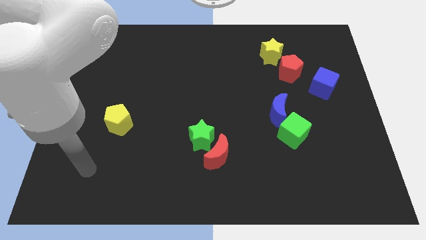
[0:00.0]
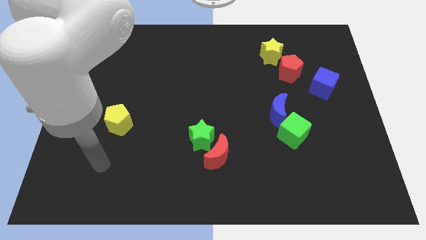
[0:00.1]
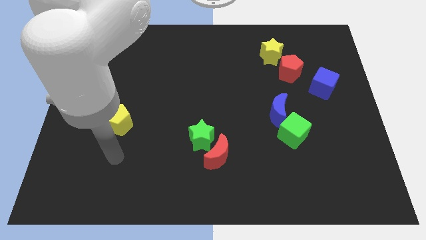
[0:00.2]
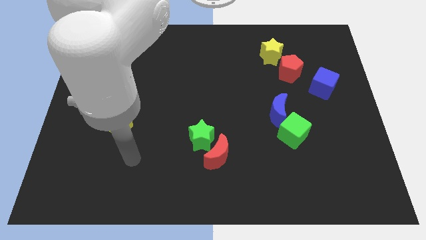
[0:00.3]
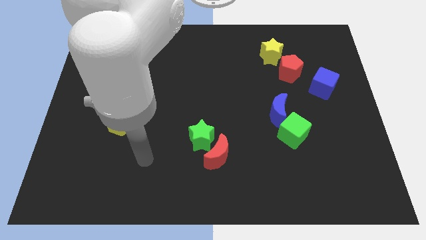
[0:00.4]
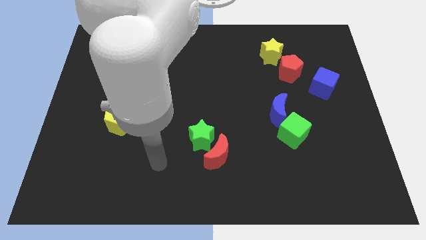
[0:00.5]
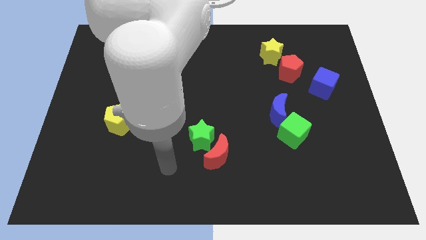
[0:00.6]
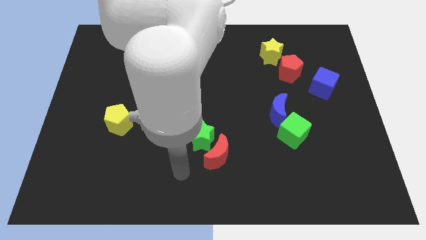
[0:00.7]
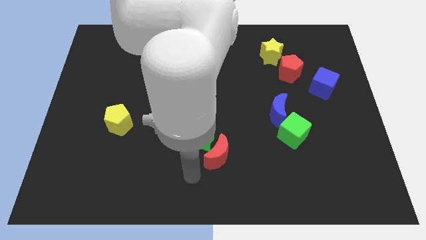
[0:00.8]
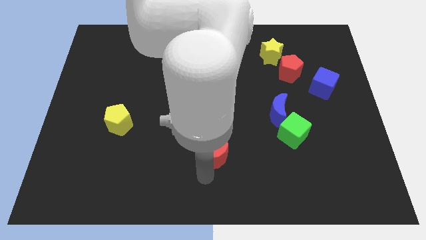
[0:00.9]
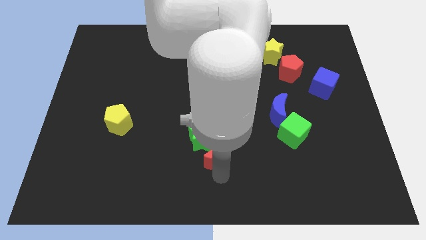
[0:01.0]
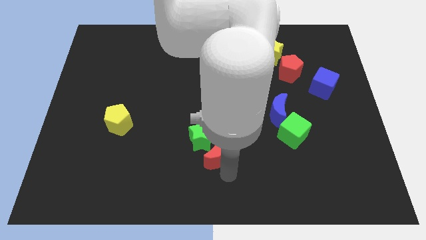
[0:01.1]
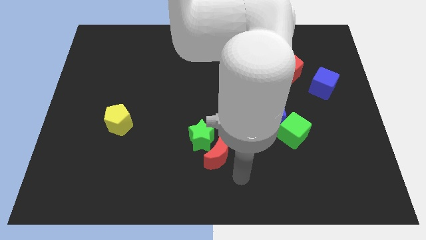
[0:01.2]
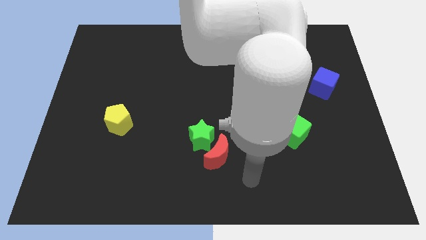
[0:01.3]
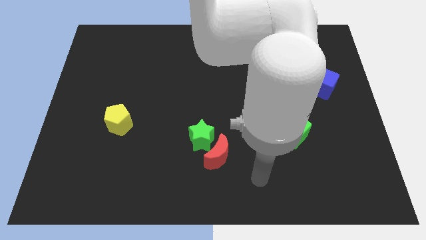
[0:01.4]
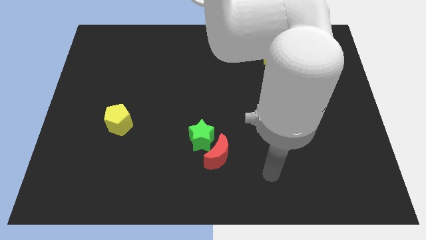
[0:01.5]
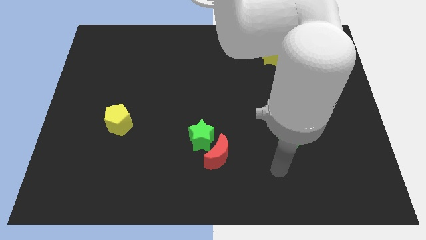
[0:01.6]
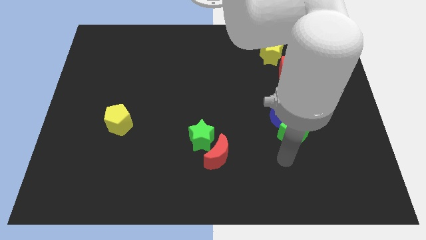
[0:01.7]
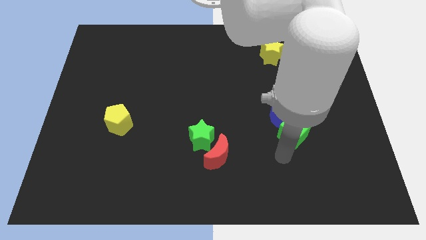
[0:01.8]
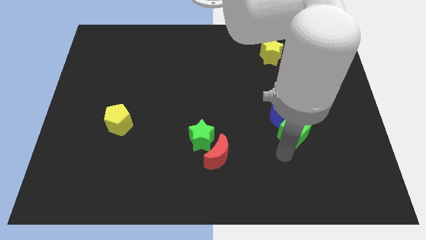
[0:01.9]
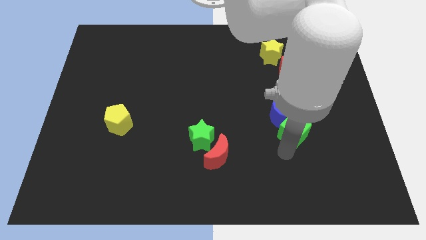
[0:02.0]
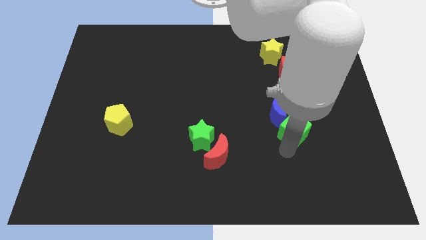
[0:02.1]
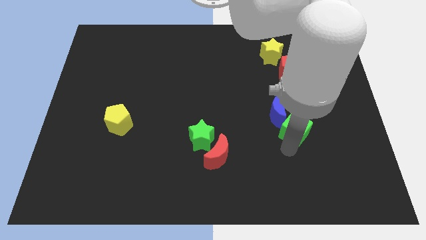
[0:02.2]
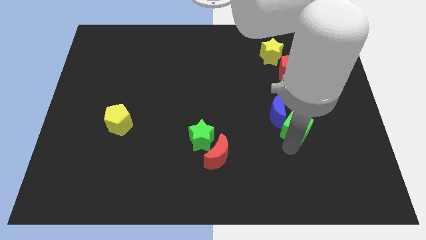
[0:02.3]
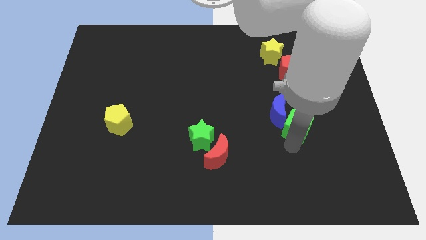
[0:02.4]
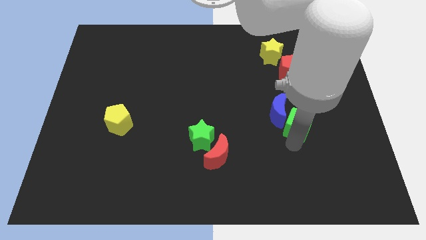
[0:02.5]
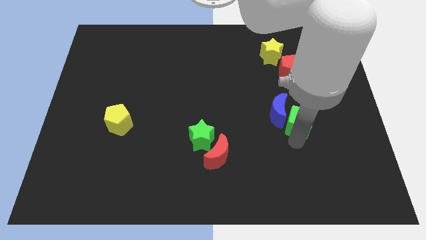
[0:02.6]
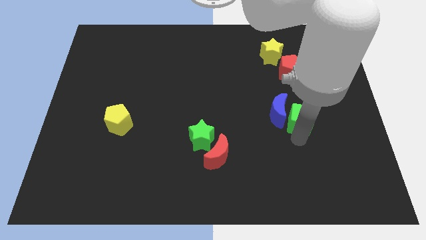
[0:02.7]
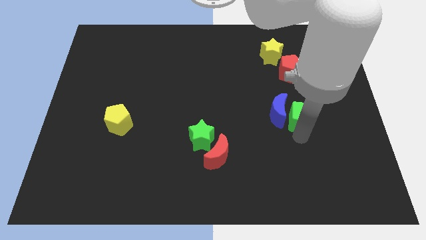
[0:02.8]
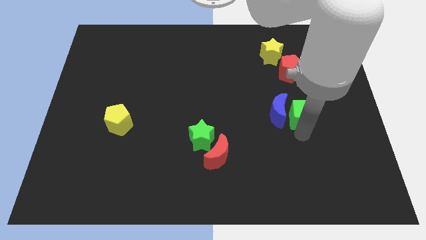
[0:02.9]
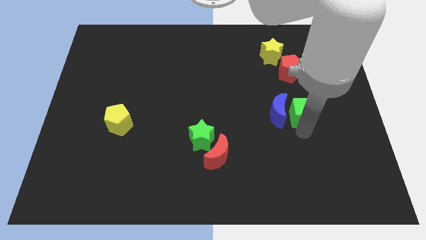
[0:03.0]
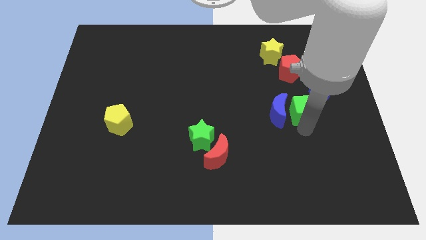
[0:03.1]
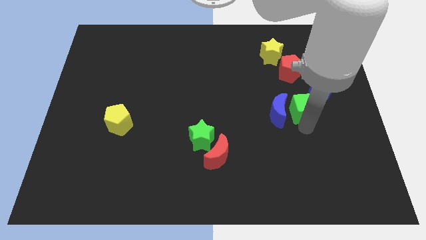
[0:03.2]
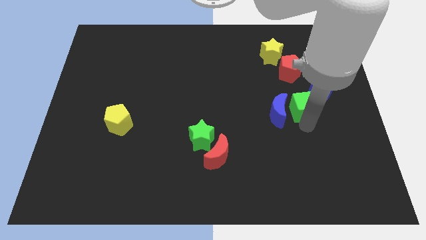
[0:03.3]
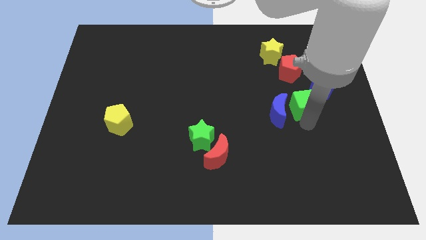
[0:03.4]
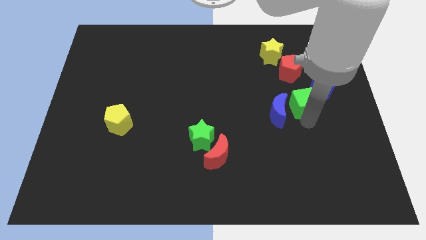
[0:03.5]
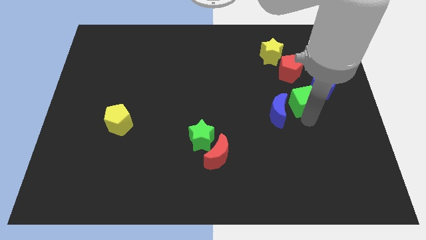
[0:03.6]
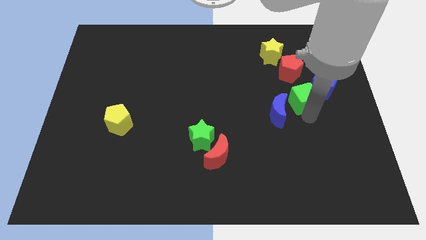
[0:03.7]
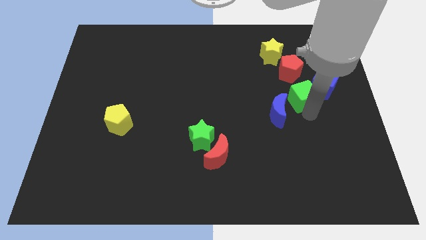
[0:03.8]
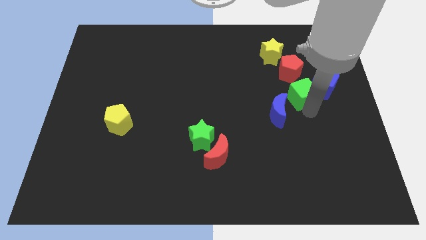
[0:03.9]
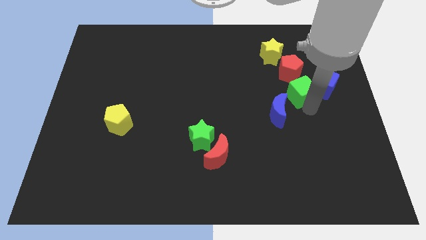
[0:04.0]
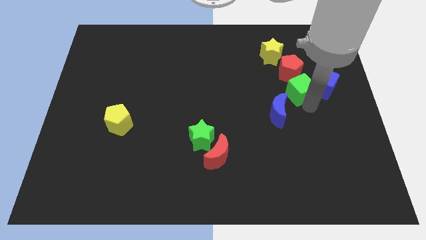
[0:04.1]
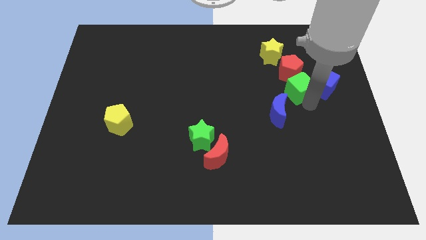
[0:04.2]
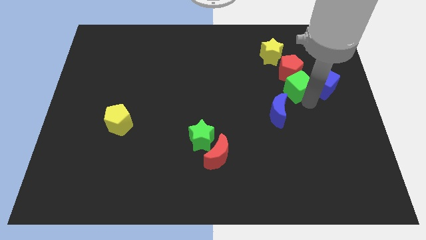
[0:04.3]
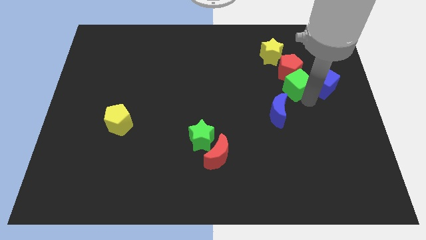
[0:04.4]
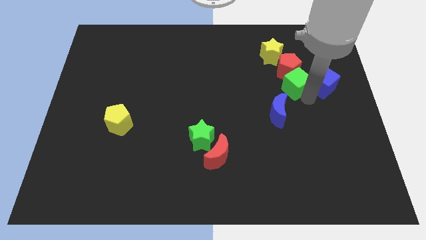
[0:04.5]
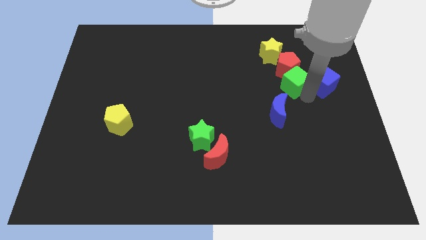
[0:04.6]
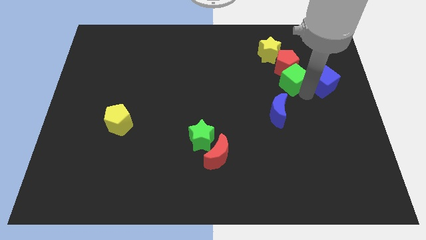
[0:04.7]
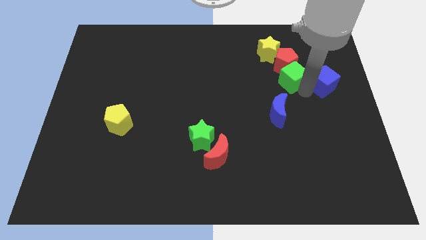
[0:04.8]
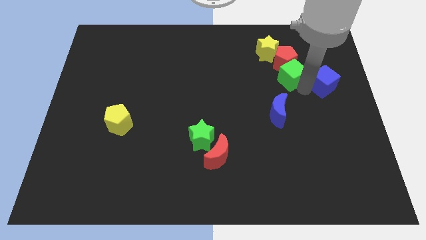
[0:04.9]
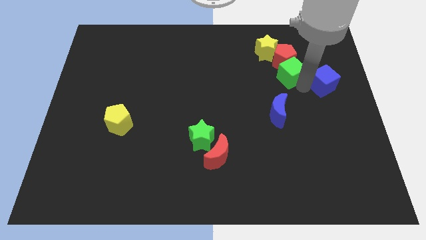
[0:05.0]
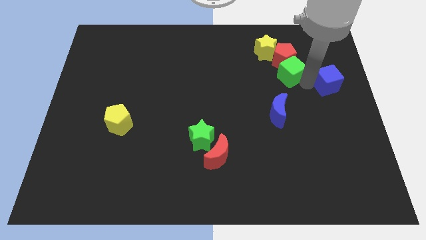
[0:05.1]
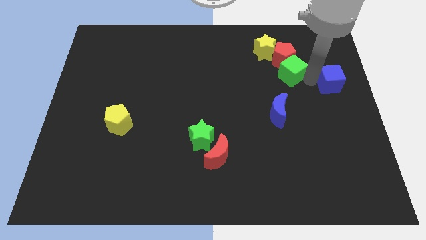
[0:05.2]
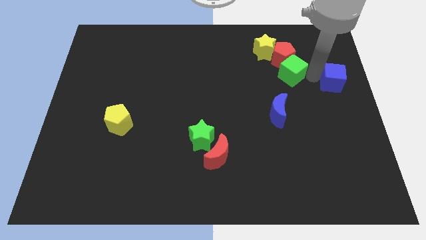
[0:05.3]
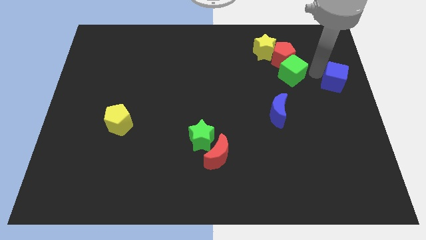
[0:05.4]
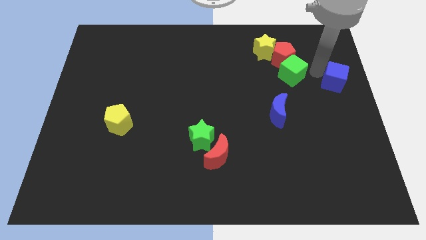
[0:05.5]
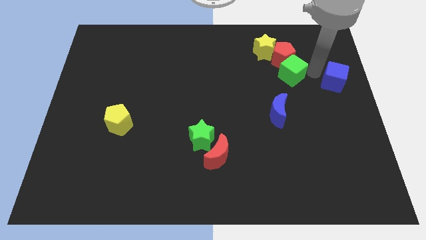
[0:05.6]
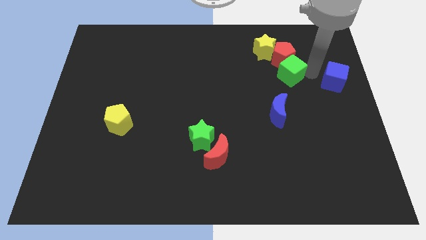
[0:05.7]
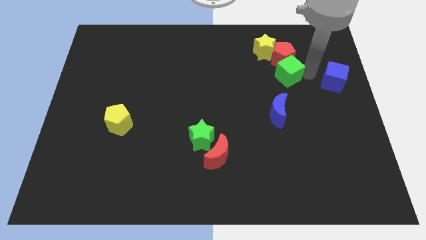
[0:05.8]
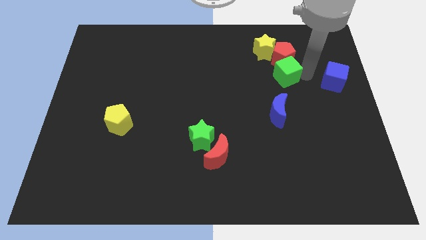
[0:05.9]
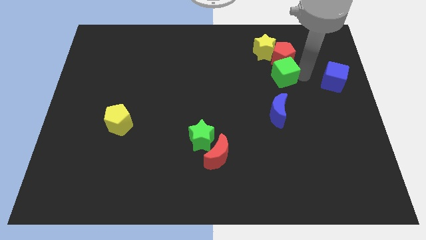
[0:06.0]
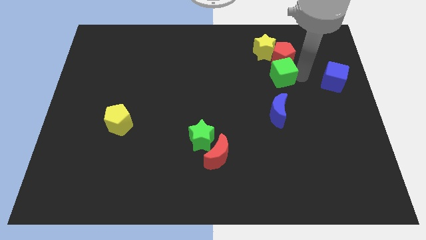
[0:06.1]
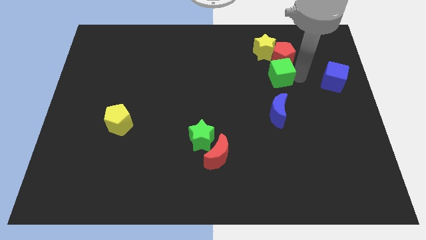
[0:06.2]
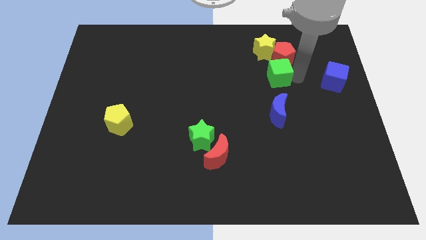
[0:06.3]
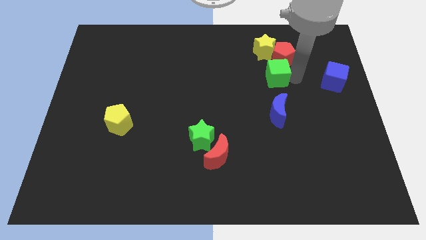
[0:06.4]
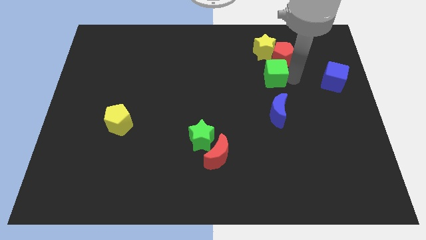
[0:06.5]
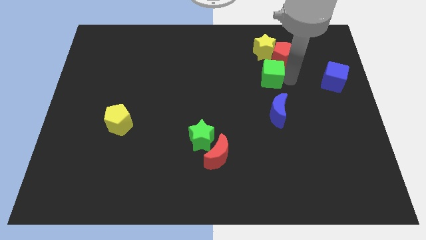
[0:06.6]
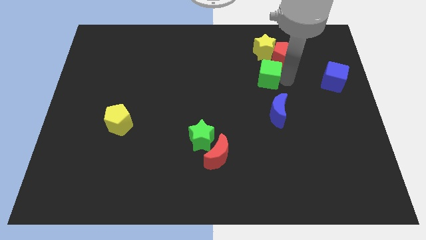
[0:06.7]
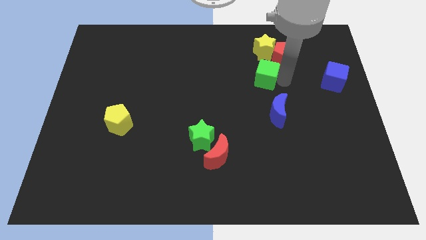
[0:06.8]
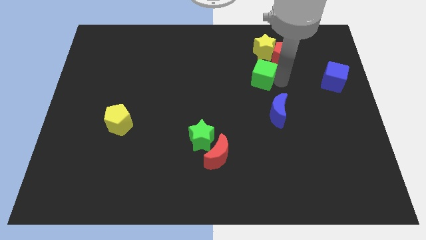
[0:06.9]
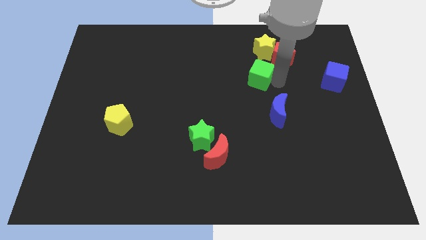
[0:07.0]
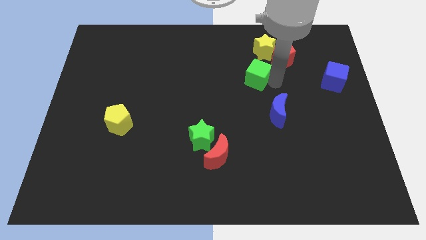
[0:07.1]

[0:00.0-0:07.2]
put the green cube diagonally down and to the left of the yellow star
